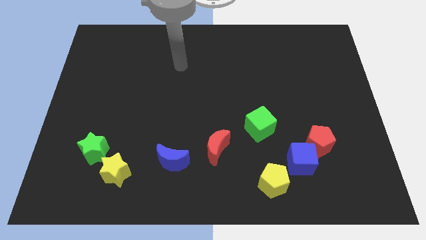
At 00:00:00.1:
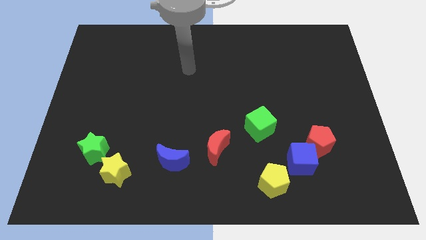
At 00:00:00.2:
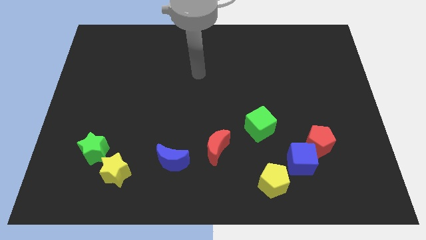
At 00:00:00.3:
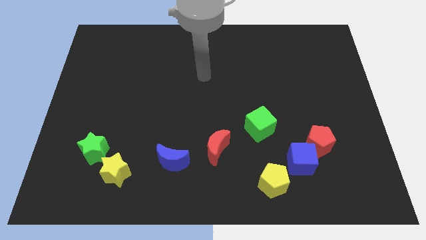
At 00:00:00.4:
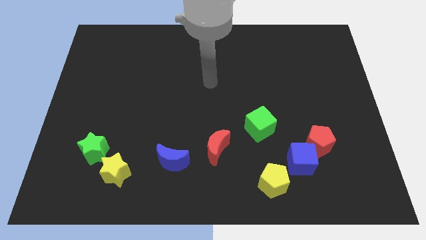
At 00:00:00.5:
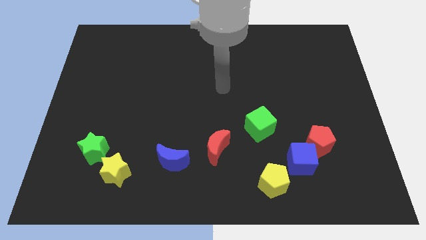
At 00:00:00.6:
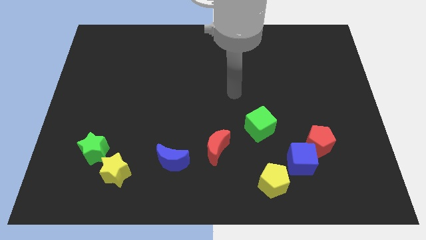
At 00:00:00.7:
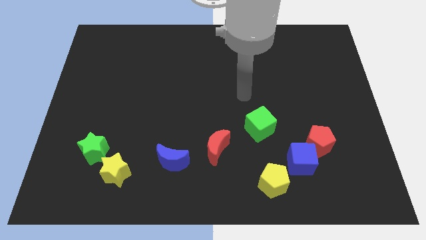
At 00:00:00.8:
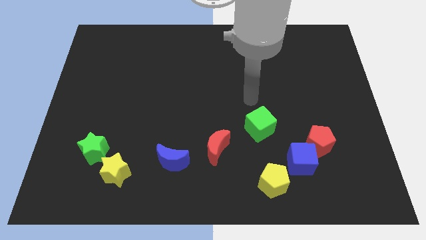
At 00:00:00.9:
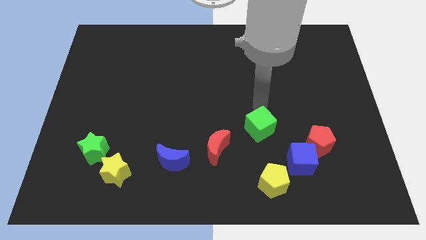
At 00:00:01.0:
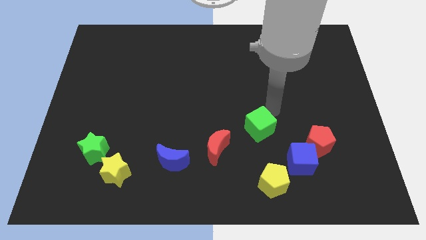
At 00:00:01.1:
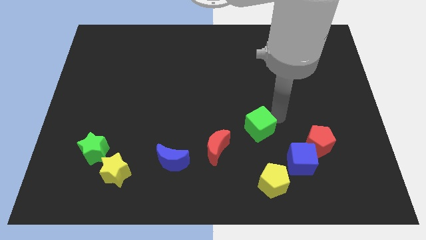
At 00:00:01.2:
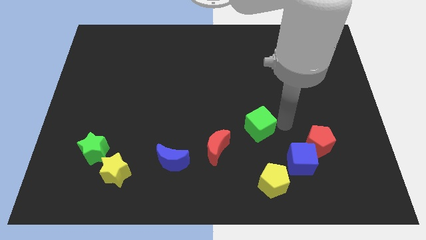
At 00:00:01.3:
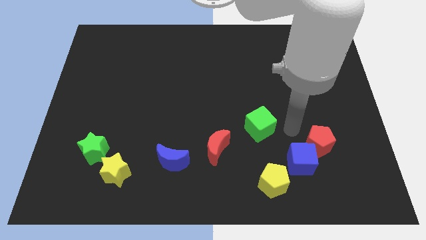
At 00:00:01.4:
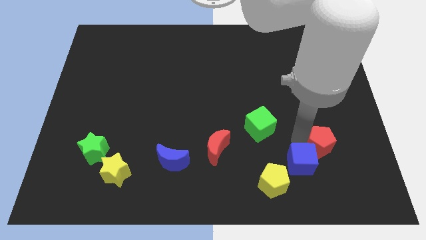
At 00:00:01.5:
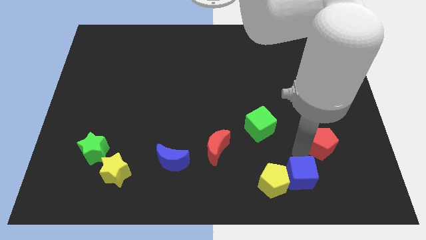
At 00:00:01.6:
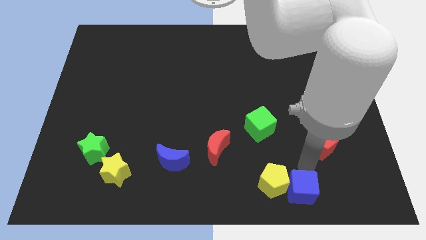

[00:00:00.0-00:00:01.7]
separate the red pentagon from the blue cube

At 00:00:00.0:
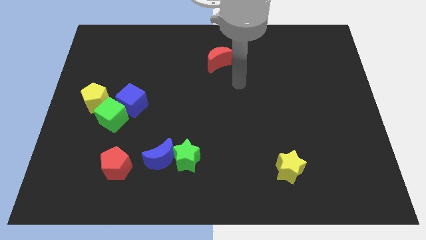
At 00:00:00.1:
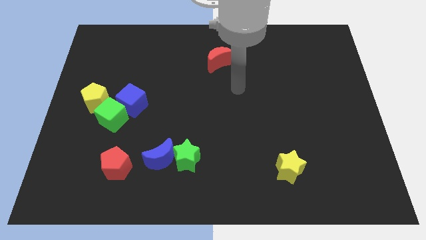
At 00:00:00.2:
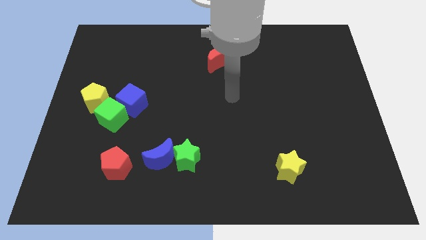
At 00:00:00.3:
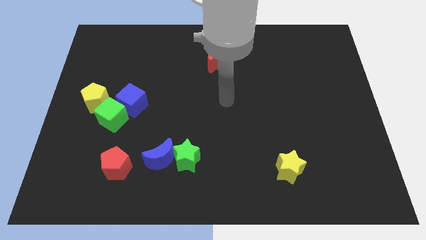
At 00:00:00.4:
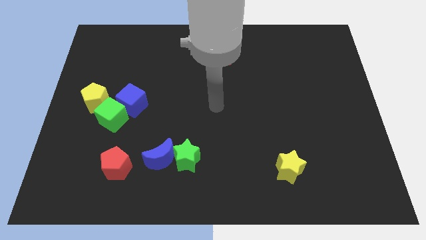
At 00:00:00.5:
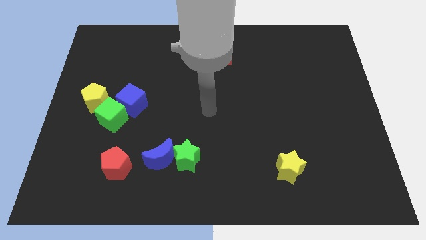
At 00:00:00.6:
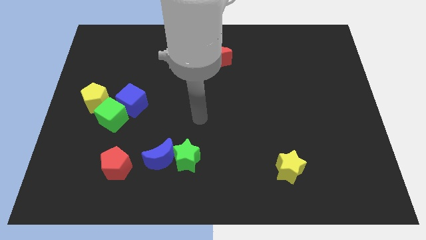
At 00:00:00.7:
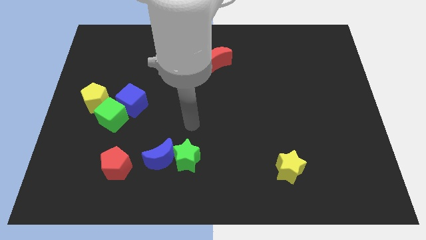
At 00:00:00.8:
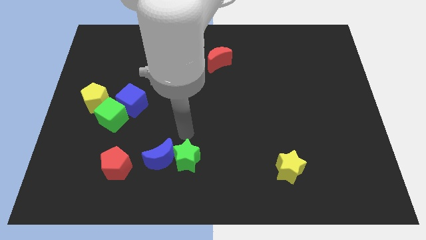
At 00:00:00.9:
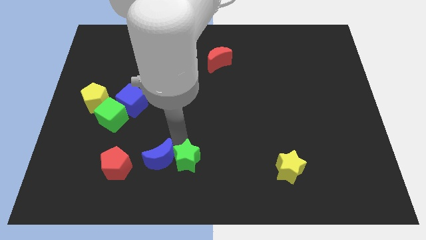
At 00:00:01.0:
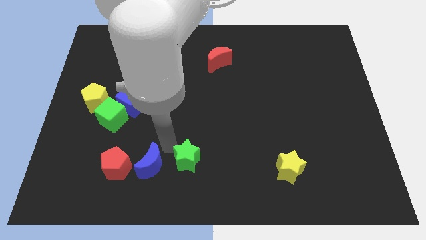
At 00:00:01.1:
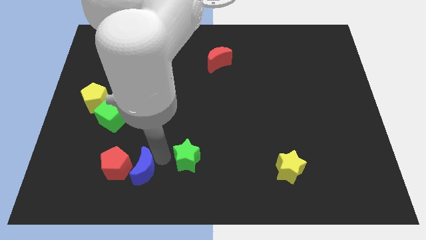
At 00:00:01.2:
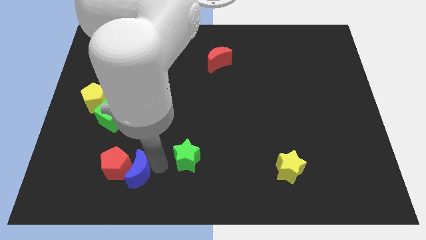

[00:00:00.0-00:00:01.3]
move the green star away from the blue moon

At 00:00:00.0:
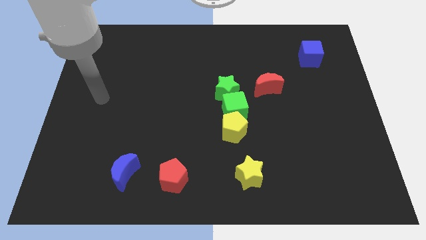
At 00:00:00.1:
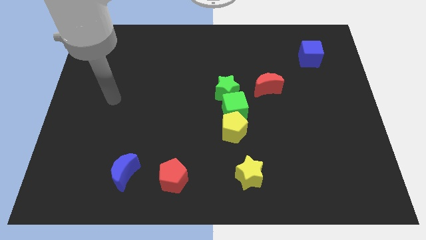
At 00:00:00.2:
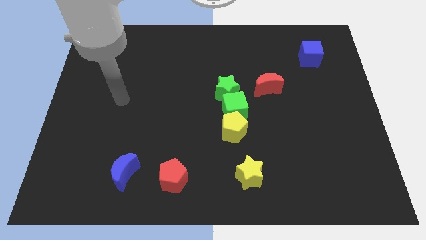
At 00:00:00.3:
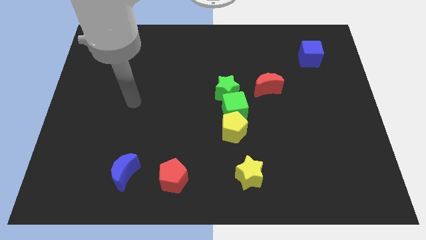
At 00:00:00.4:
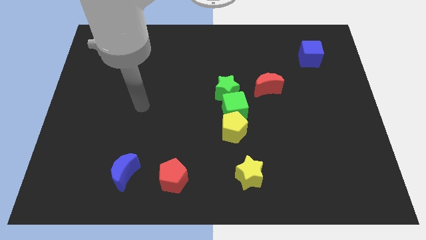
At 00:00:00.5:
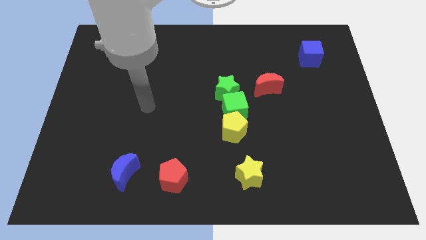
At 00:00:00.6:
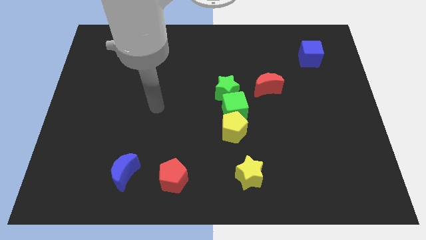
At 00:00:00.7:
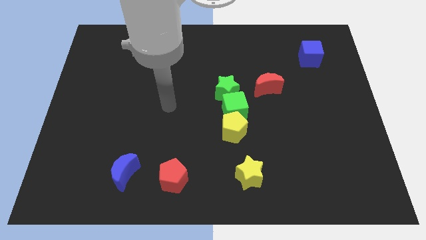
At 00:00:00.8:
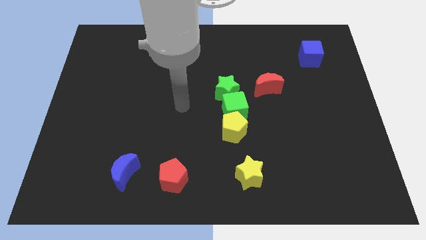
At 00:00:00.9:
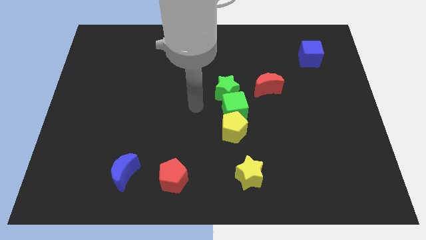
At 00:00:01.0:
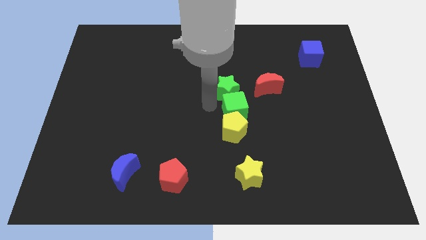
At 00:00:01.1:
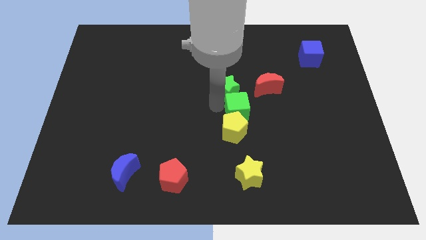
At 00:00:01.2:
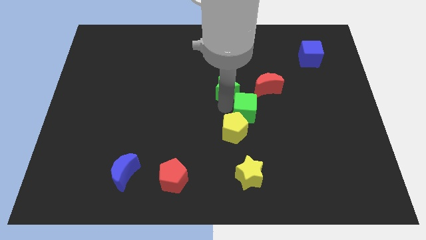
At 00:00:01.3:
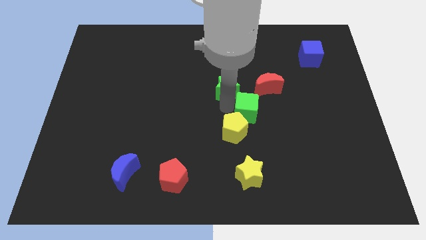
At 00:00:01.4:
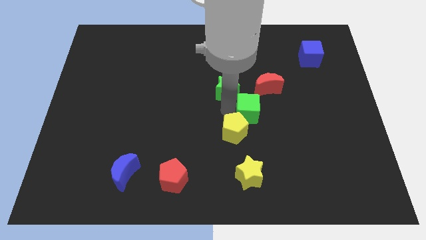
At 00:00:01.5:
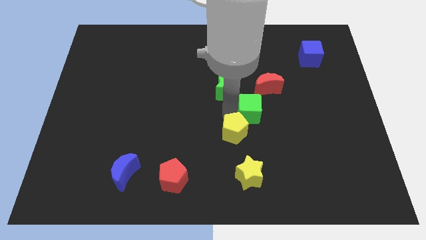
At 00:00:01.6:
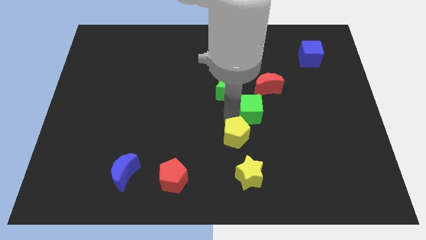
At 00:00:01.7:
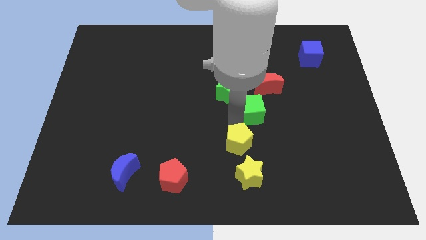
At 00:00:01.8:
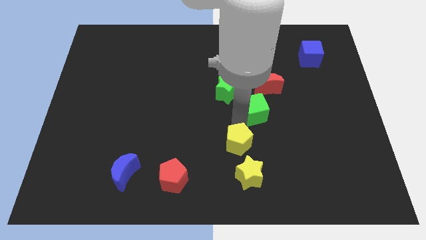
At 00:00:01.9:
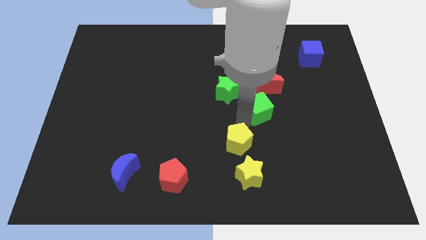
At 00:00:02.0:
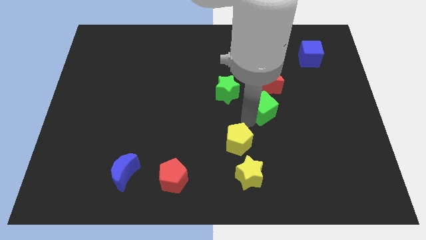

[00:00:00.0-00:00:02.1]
move the yellow pentagon away from the green cube

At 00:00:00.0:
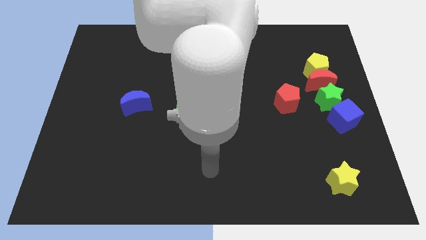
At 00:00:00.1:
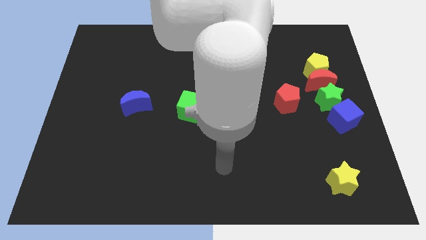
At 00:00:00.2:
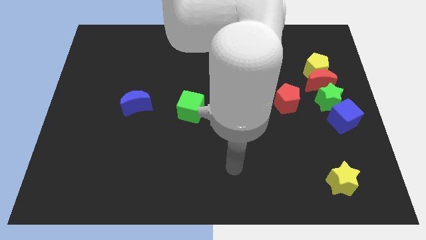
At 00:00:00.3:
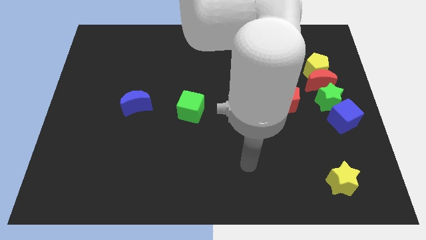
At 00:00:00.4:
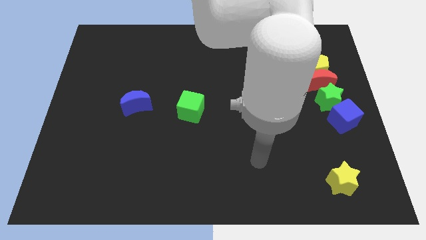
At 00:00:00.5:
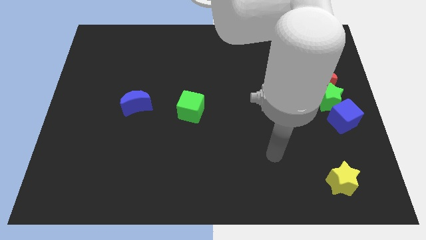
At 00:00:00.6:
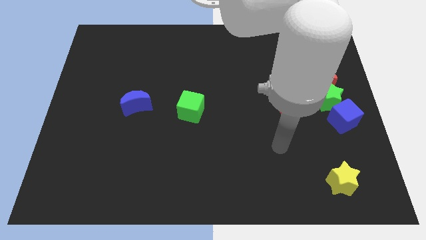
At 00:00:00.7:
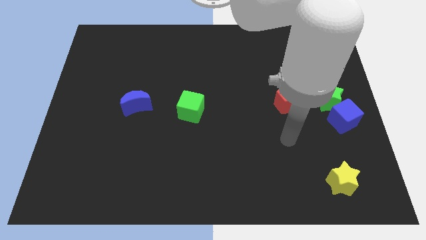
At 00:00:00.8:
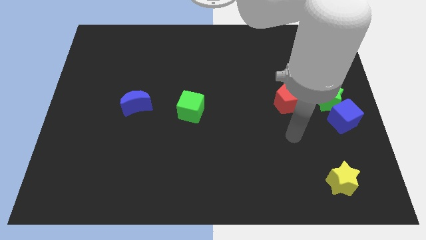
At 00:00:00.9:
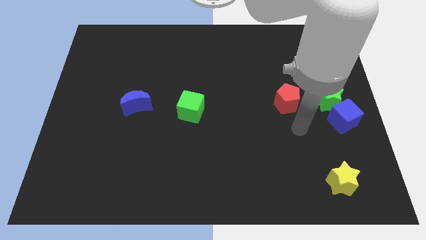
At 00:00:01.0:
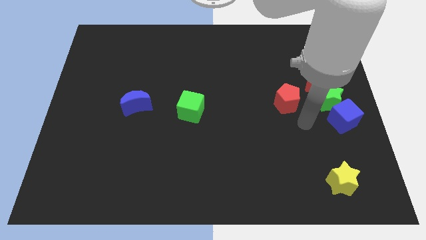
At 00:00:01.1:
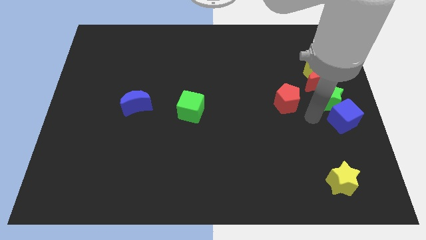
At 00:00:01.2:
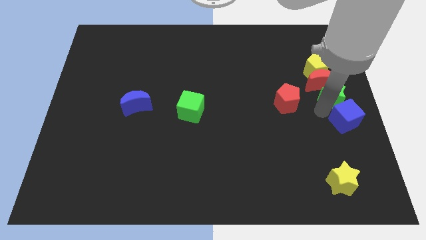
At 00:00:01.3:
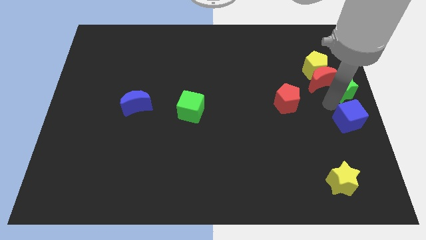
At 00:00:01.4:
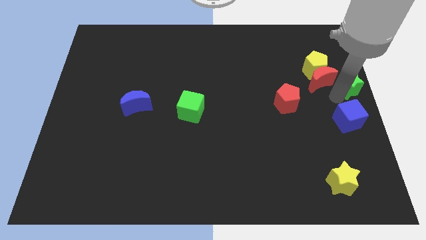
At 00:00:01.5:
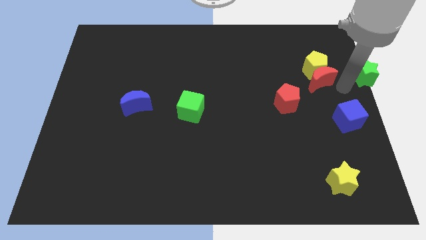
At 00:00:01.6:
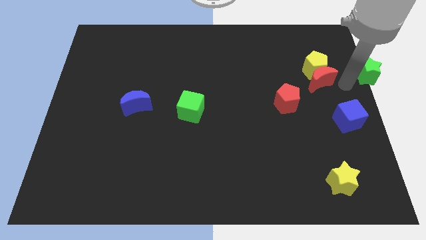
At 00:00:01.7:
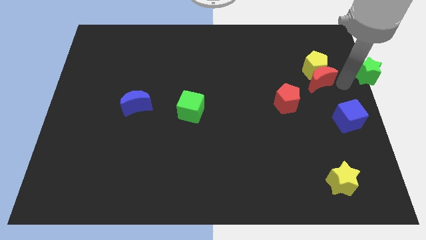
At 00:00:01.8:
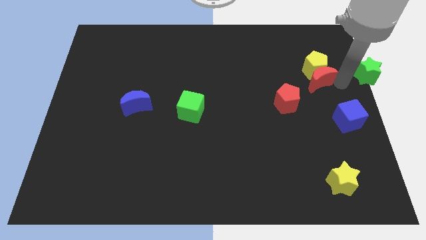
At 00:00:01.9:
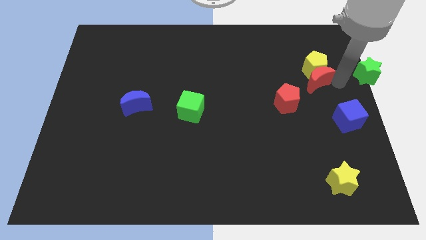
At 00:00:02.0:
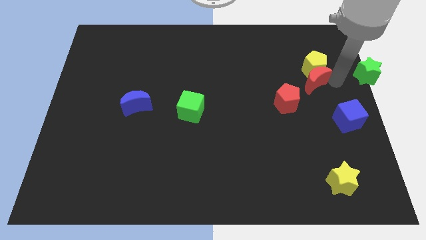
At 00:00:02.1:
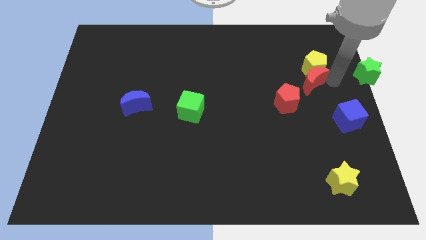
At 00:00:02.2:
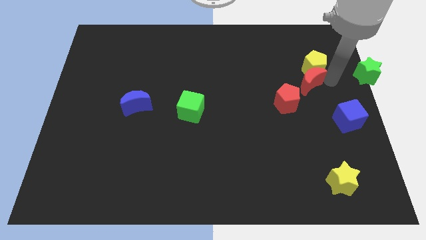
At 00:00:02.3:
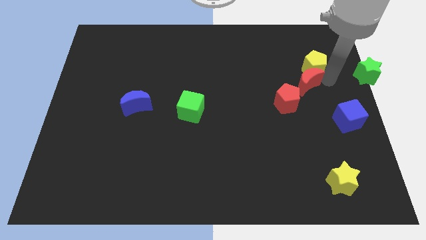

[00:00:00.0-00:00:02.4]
separate the red moon from the yellow pentagon and green star

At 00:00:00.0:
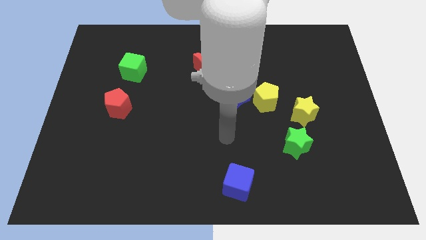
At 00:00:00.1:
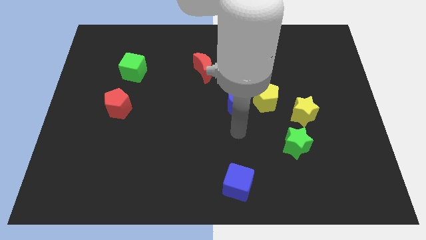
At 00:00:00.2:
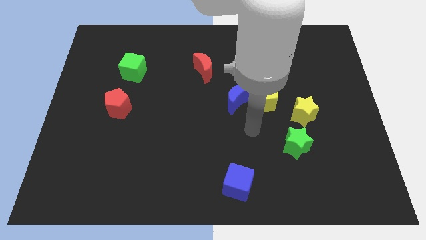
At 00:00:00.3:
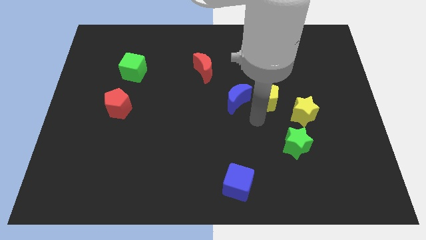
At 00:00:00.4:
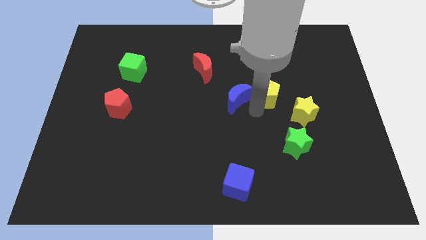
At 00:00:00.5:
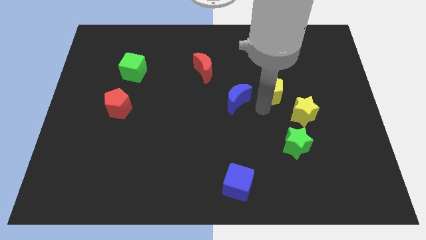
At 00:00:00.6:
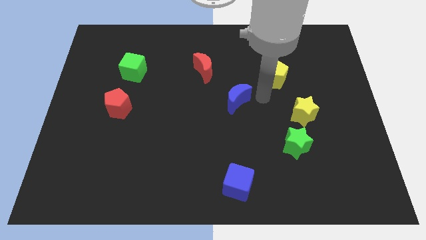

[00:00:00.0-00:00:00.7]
move the blue moon away from the yellow pentagon

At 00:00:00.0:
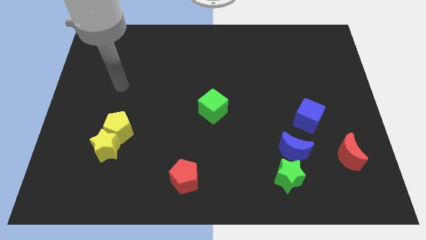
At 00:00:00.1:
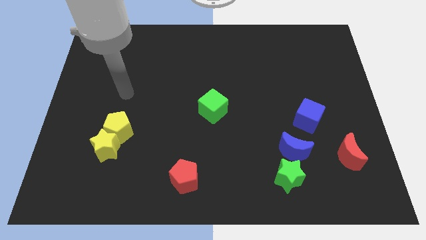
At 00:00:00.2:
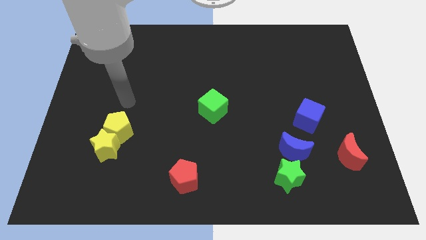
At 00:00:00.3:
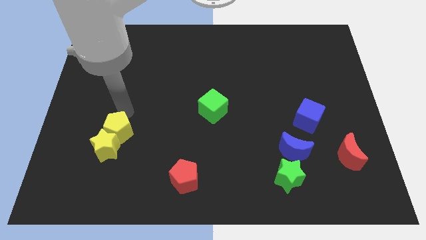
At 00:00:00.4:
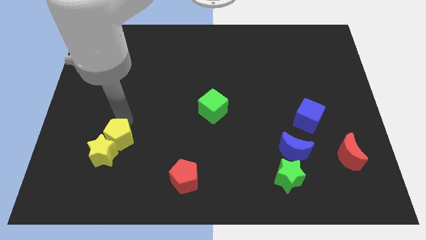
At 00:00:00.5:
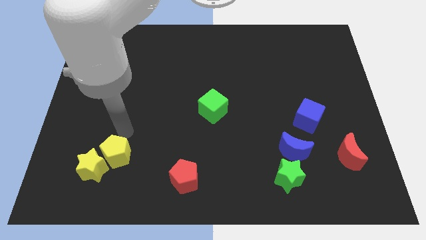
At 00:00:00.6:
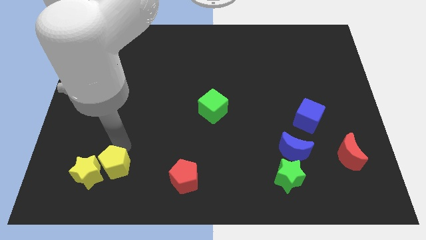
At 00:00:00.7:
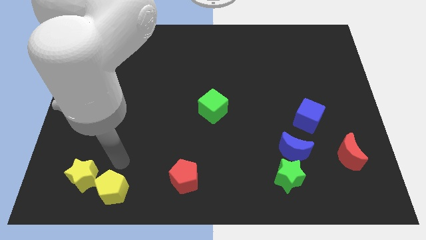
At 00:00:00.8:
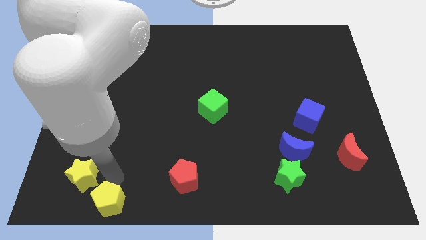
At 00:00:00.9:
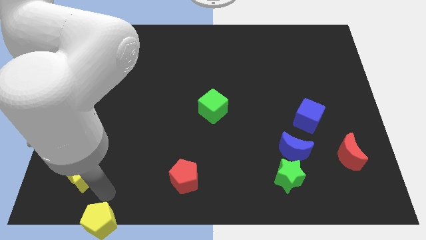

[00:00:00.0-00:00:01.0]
move the yellow star away from the yellow pentagon

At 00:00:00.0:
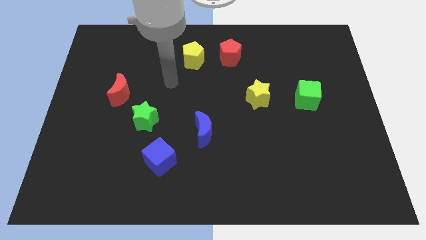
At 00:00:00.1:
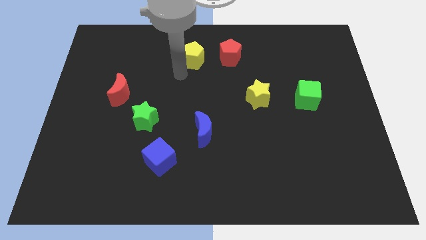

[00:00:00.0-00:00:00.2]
pull the red pentagon apart from the yellow pentagon
